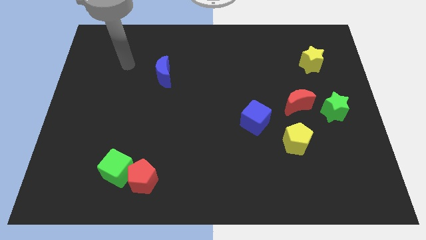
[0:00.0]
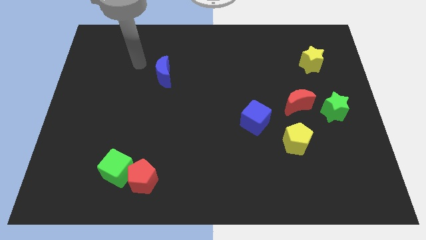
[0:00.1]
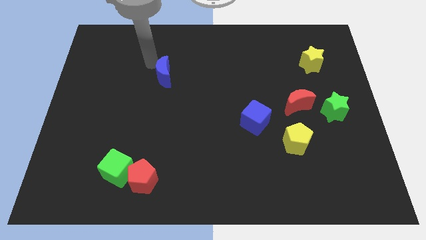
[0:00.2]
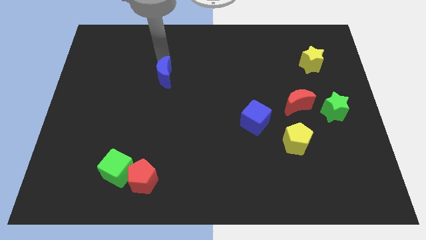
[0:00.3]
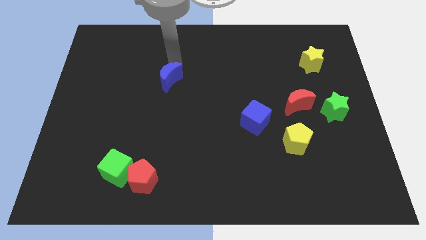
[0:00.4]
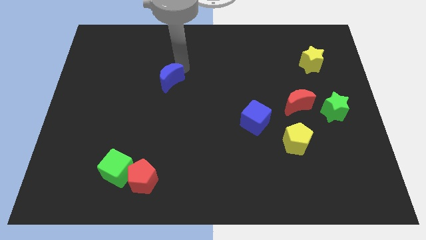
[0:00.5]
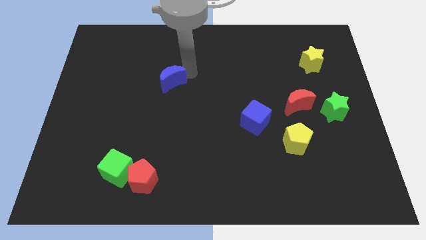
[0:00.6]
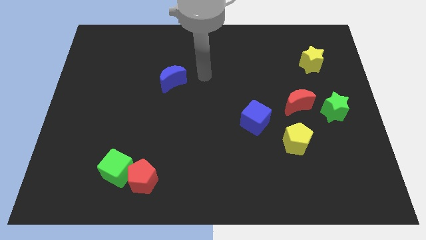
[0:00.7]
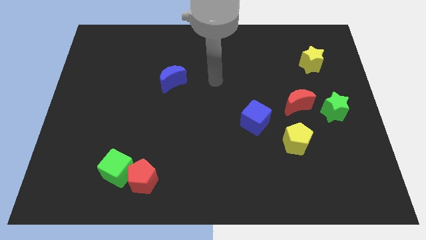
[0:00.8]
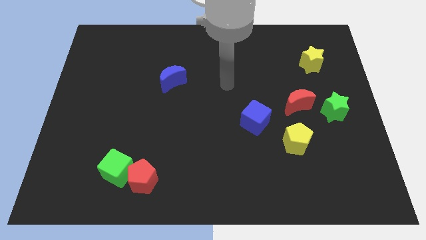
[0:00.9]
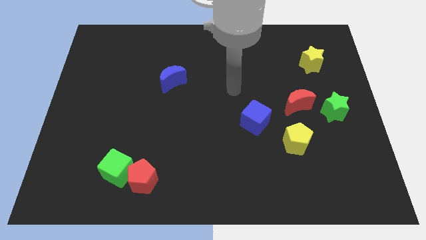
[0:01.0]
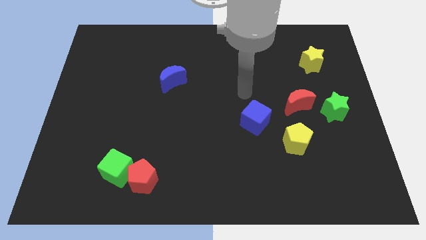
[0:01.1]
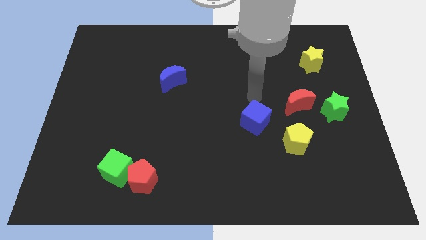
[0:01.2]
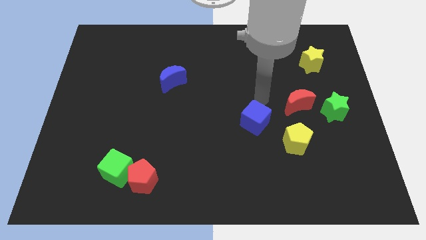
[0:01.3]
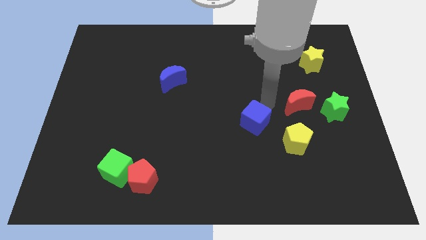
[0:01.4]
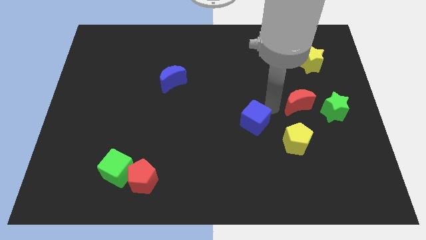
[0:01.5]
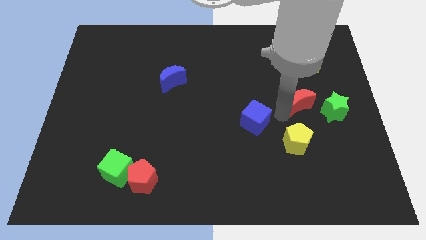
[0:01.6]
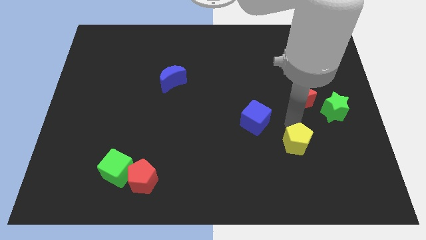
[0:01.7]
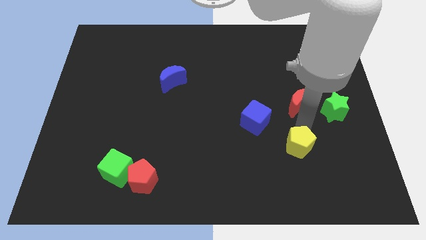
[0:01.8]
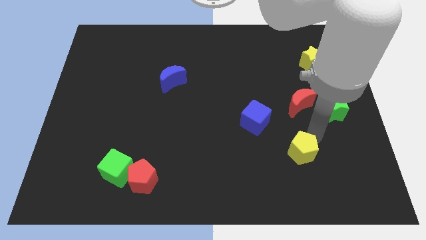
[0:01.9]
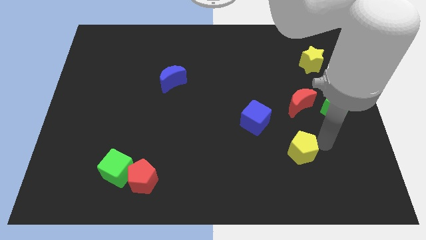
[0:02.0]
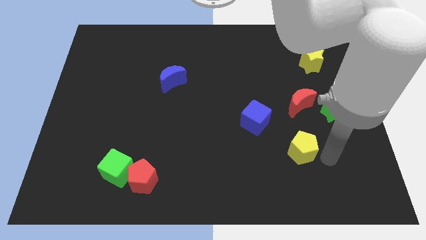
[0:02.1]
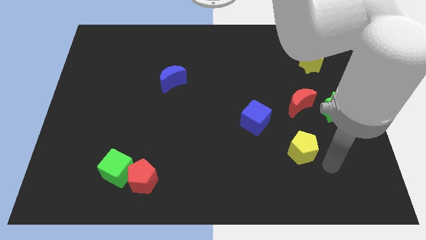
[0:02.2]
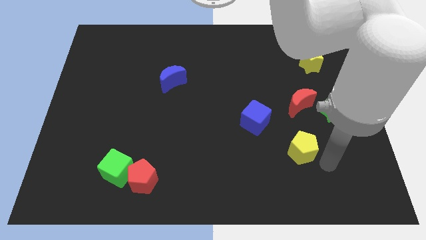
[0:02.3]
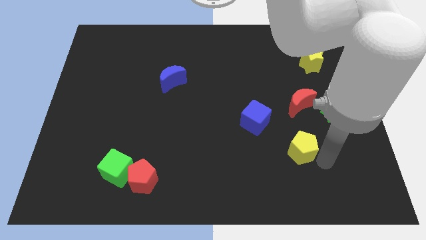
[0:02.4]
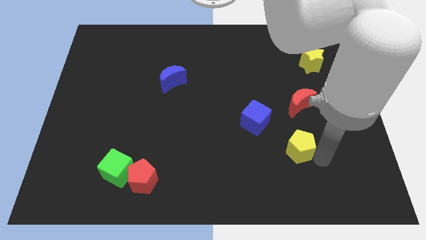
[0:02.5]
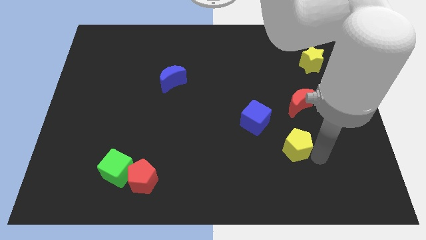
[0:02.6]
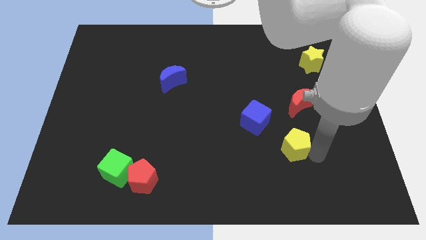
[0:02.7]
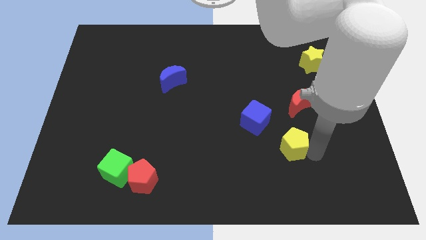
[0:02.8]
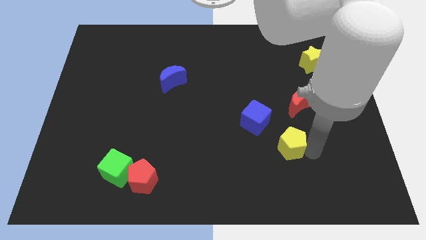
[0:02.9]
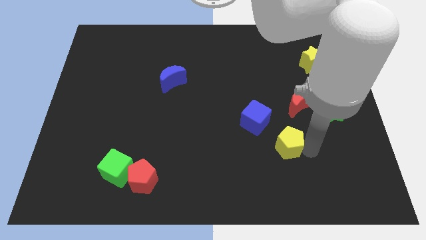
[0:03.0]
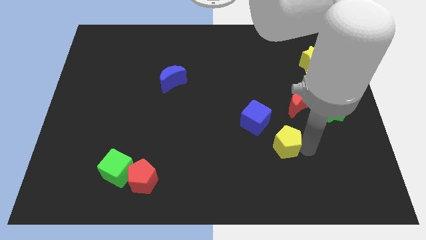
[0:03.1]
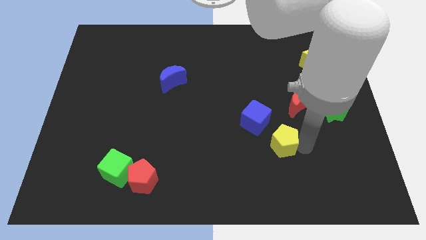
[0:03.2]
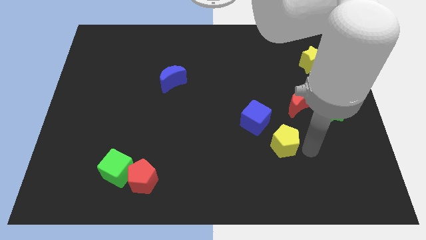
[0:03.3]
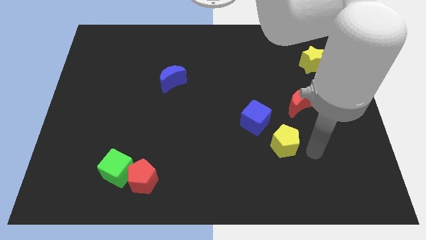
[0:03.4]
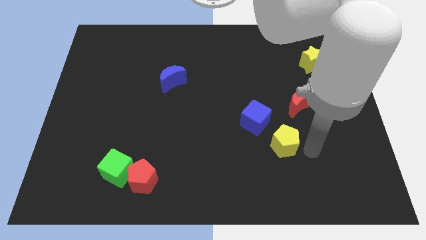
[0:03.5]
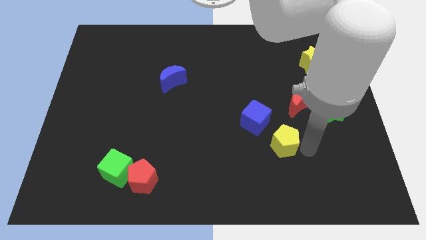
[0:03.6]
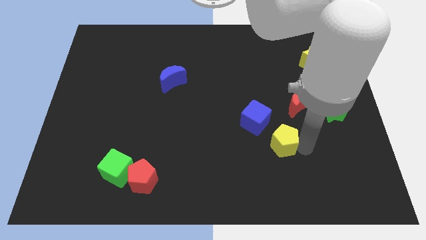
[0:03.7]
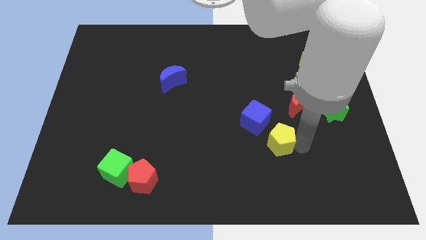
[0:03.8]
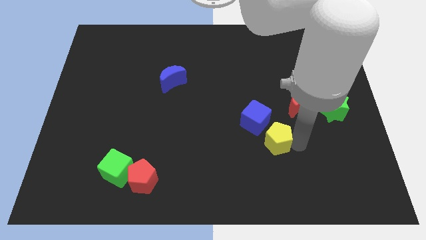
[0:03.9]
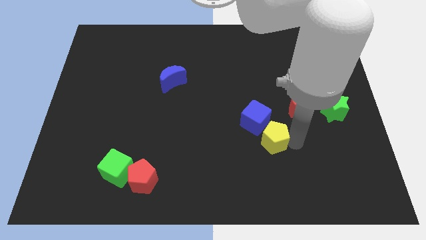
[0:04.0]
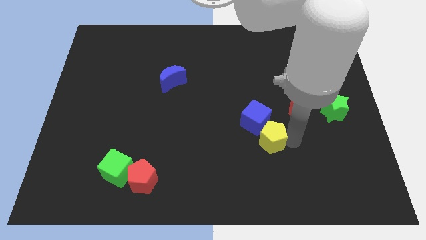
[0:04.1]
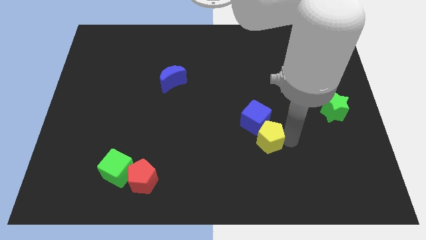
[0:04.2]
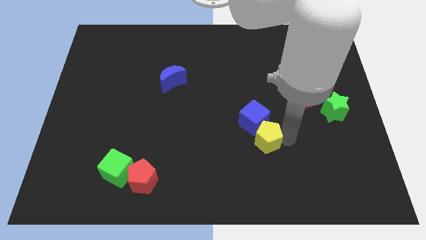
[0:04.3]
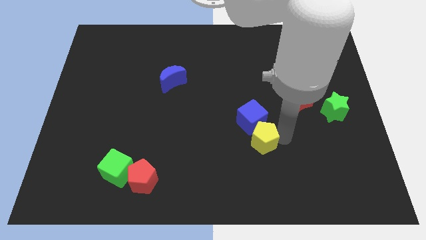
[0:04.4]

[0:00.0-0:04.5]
slide the yellow pentagon to the left slightly

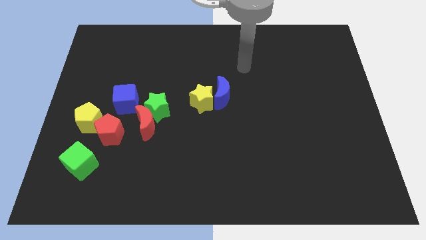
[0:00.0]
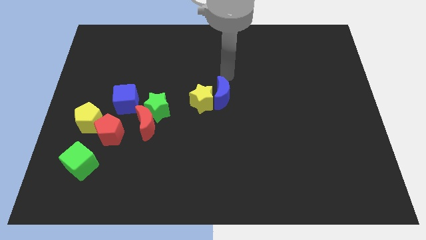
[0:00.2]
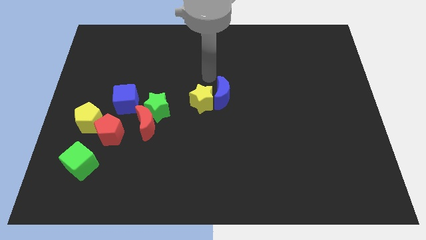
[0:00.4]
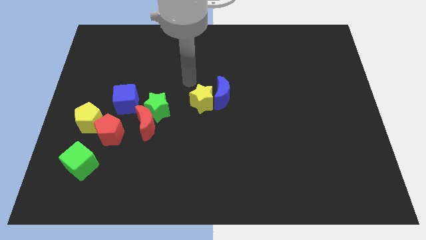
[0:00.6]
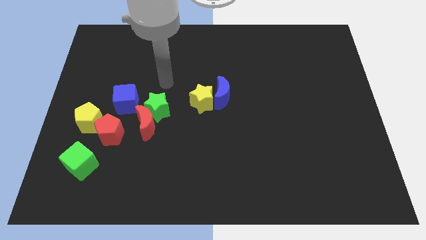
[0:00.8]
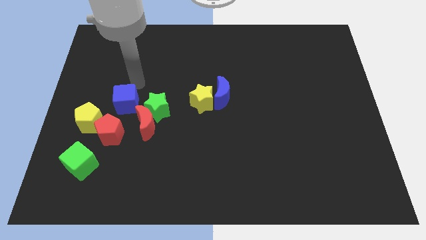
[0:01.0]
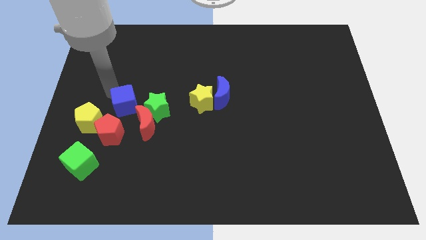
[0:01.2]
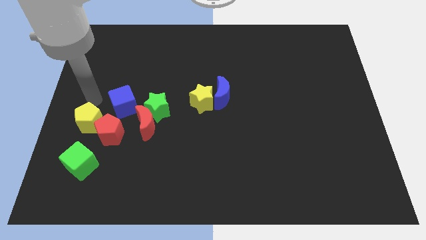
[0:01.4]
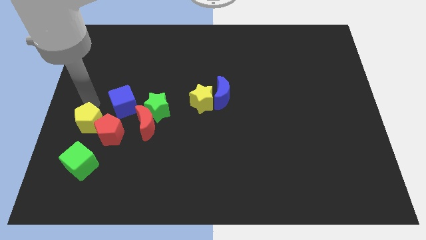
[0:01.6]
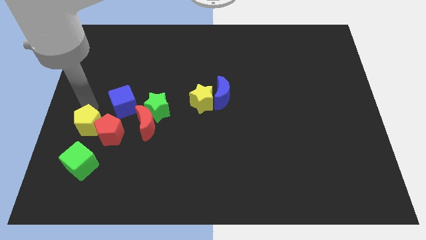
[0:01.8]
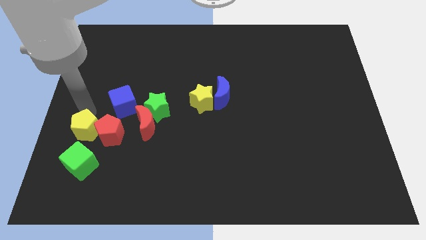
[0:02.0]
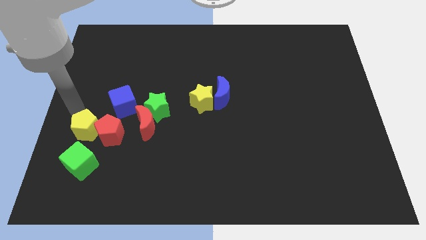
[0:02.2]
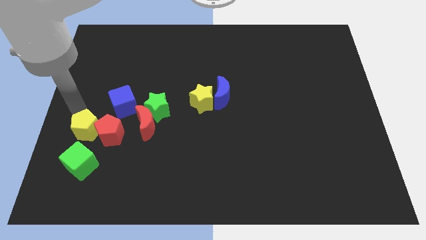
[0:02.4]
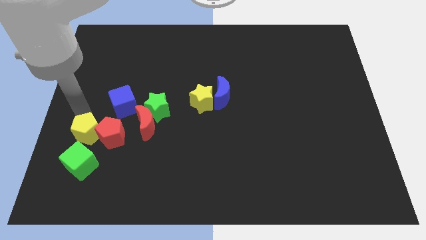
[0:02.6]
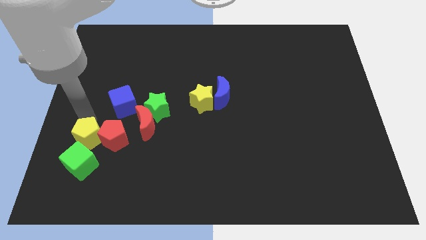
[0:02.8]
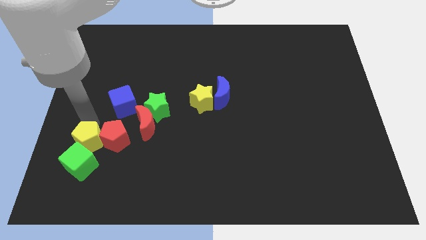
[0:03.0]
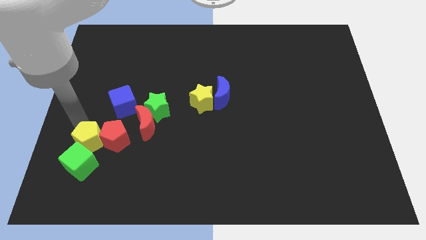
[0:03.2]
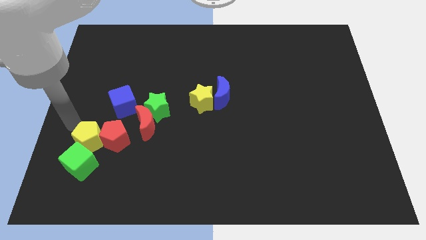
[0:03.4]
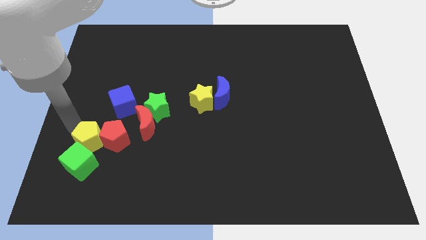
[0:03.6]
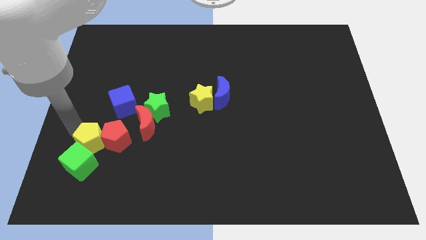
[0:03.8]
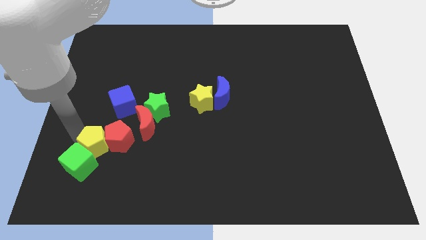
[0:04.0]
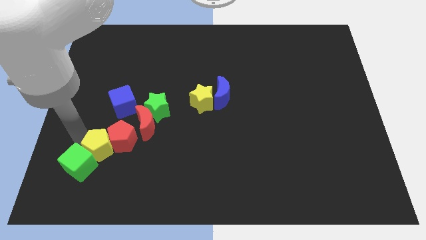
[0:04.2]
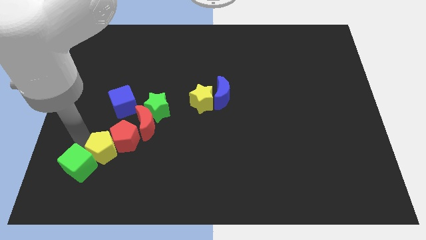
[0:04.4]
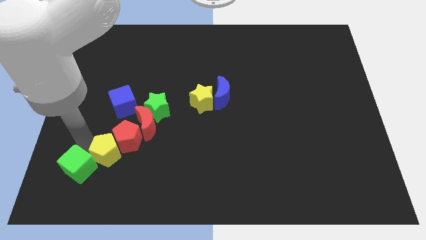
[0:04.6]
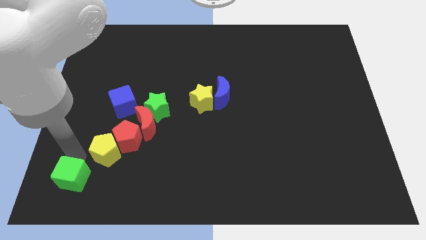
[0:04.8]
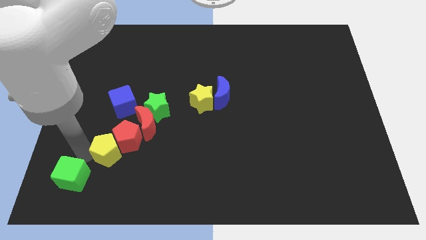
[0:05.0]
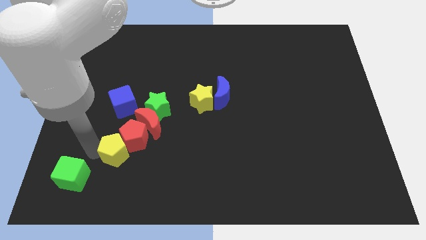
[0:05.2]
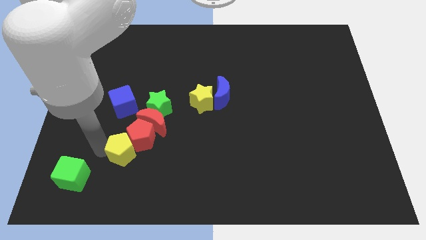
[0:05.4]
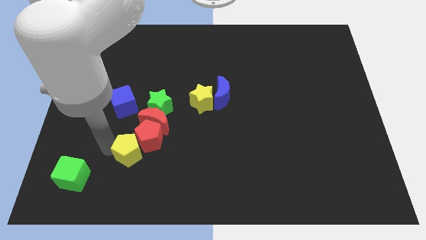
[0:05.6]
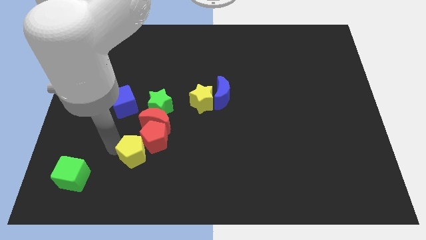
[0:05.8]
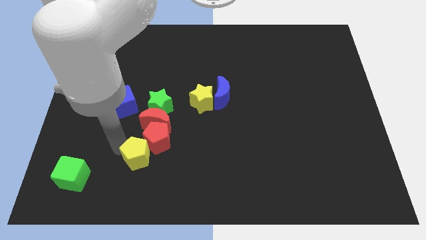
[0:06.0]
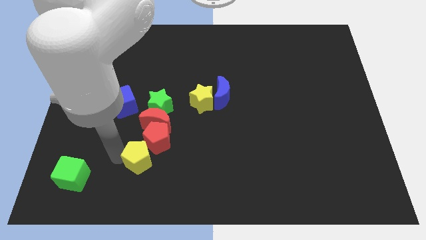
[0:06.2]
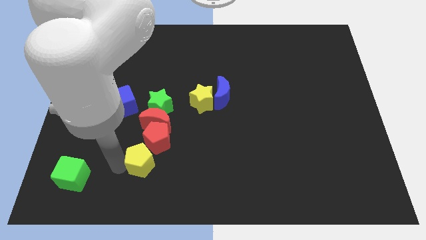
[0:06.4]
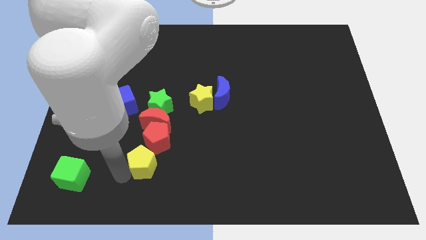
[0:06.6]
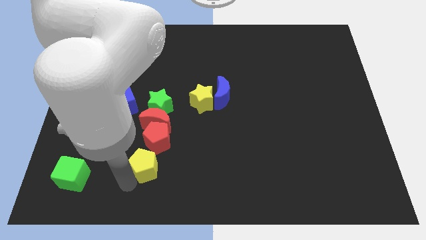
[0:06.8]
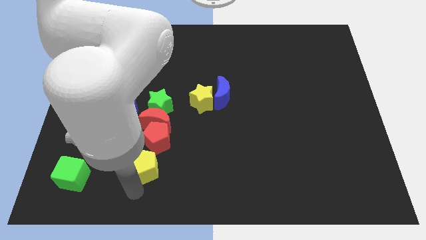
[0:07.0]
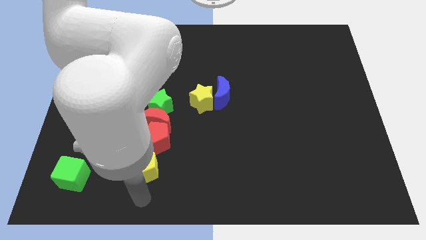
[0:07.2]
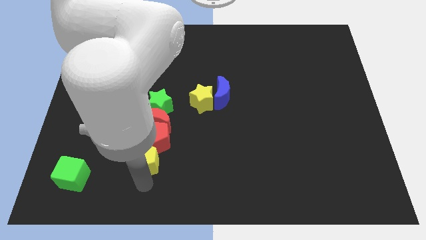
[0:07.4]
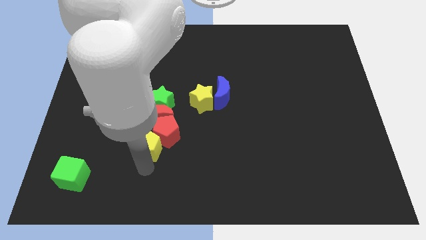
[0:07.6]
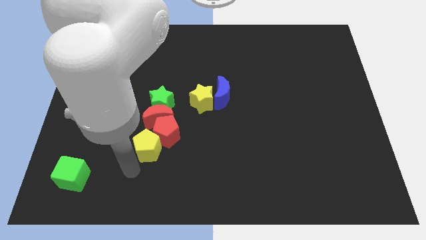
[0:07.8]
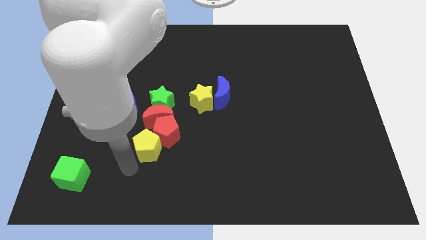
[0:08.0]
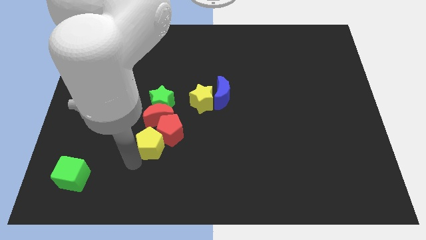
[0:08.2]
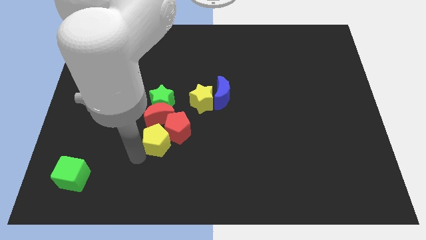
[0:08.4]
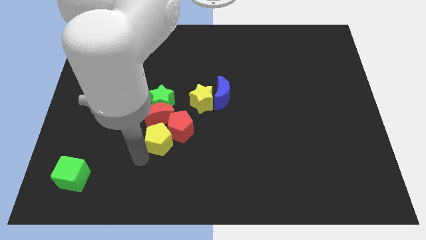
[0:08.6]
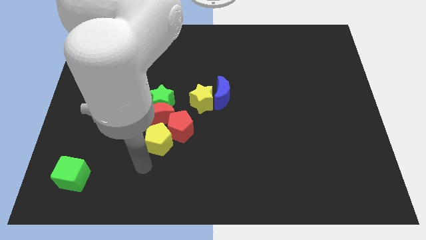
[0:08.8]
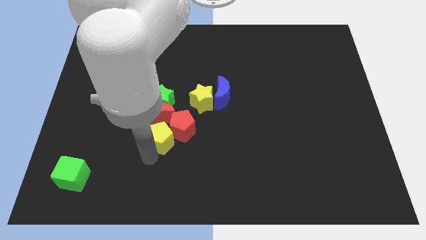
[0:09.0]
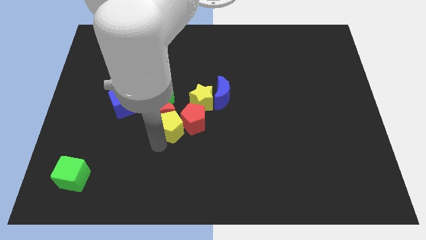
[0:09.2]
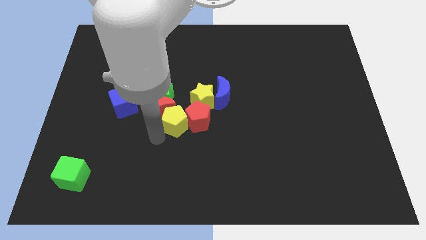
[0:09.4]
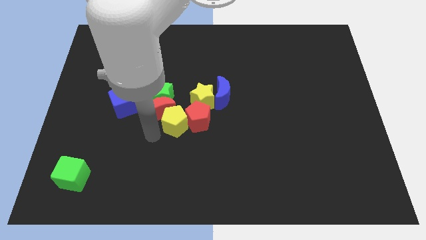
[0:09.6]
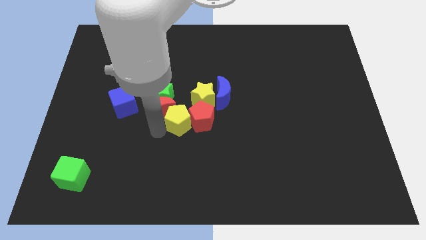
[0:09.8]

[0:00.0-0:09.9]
slide the yellow pentagon right
